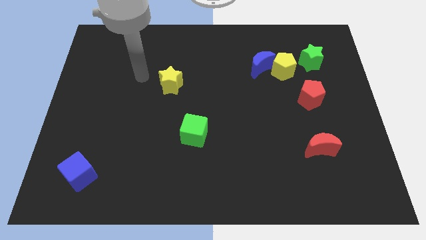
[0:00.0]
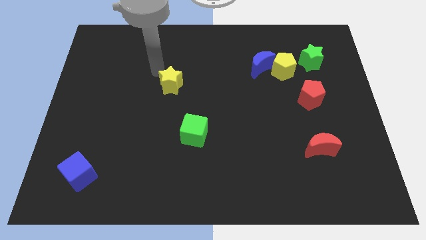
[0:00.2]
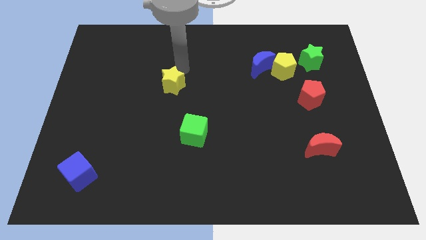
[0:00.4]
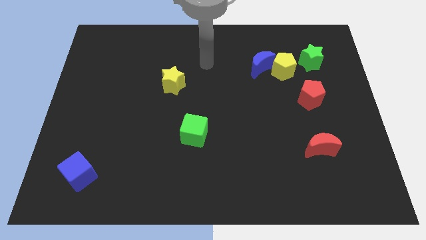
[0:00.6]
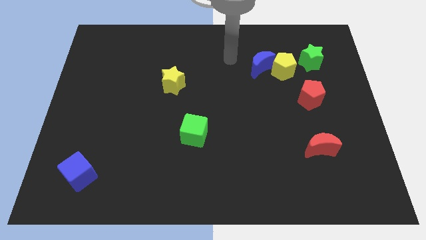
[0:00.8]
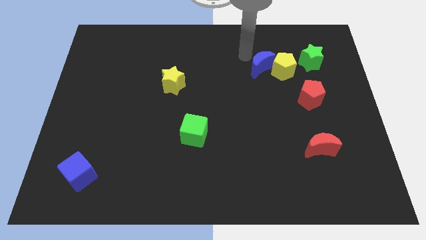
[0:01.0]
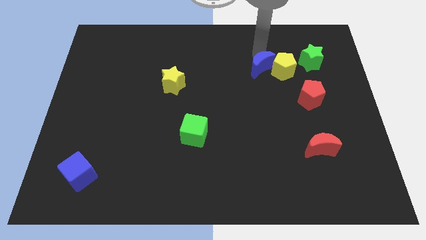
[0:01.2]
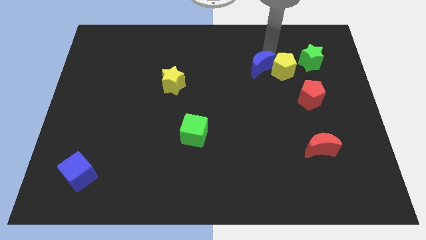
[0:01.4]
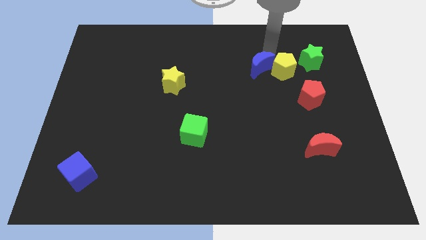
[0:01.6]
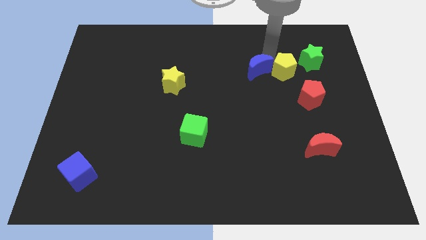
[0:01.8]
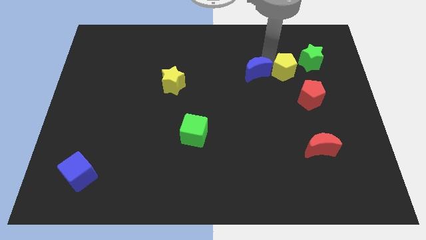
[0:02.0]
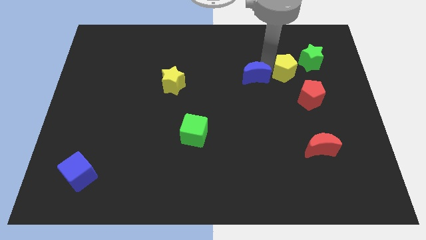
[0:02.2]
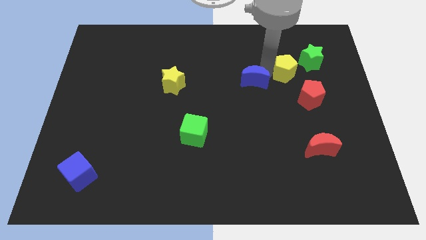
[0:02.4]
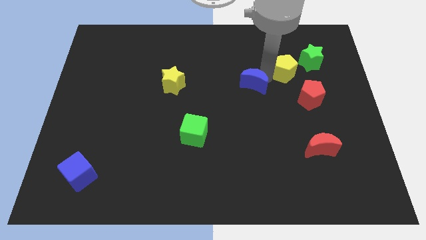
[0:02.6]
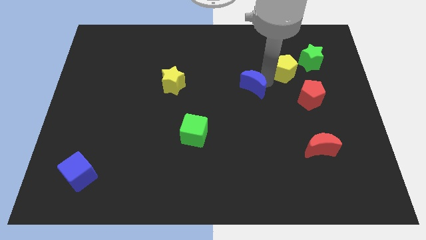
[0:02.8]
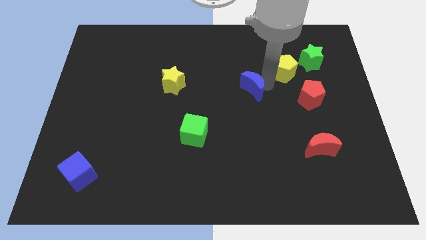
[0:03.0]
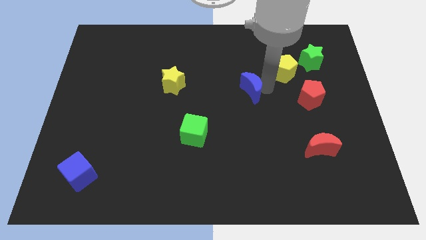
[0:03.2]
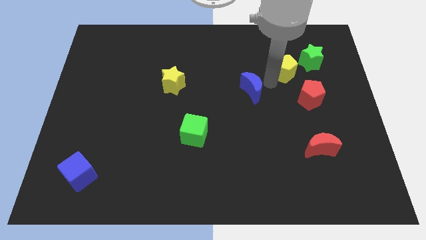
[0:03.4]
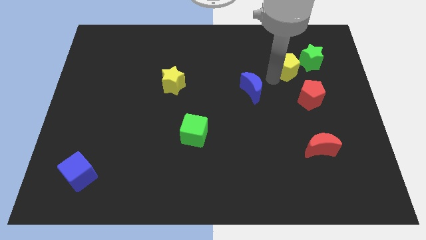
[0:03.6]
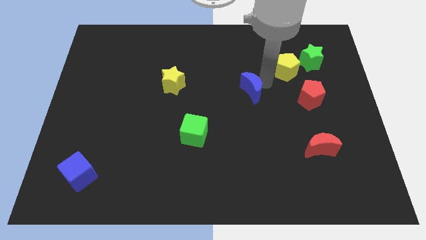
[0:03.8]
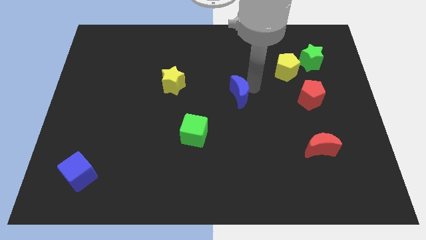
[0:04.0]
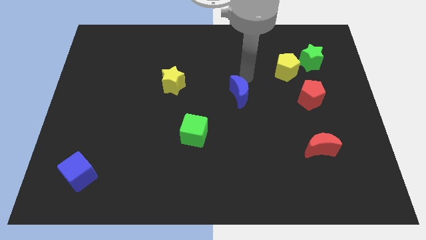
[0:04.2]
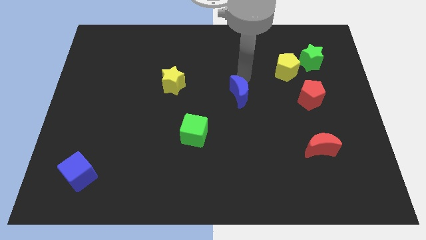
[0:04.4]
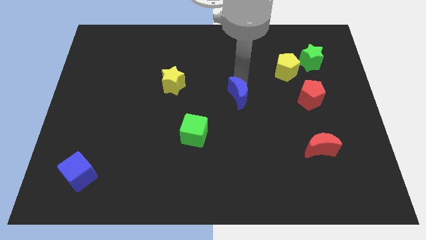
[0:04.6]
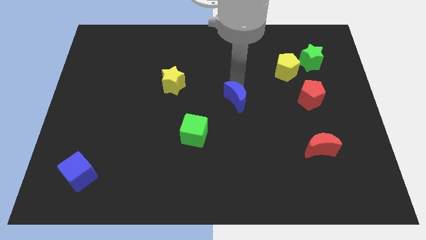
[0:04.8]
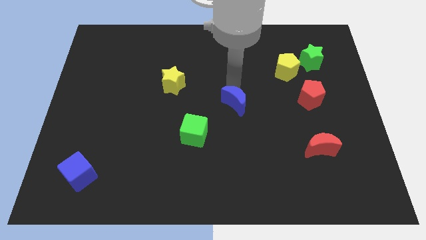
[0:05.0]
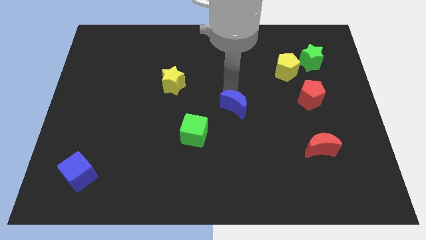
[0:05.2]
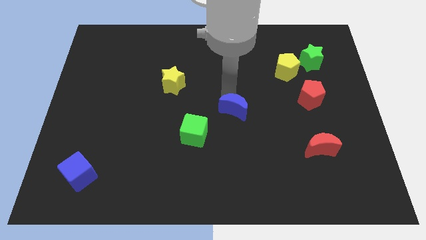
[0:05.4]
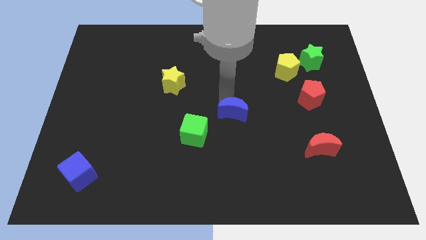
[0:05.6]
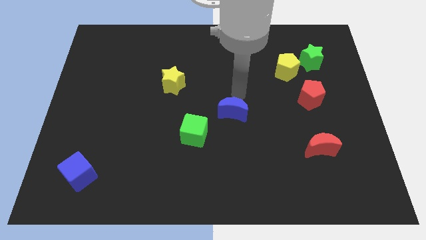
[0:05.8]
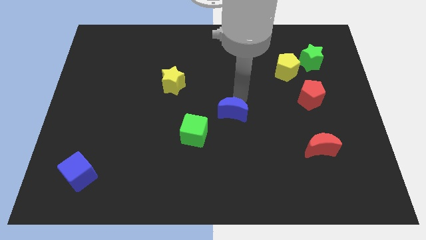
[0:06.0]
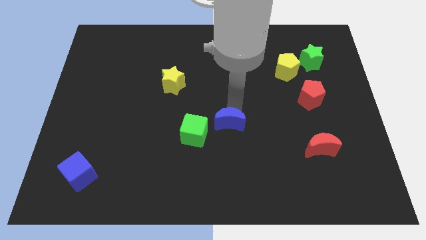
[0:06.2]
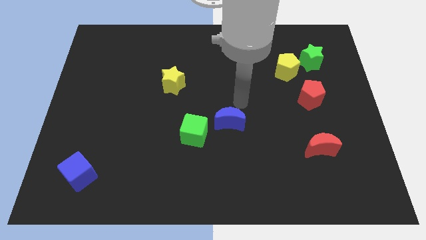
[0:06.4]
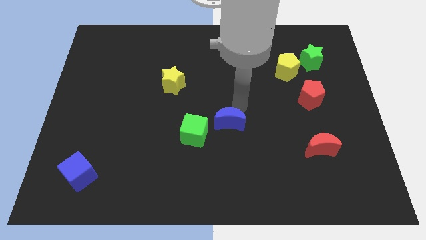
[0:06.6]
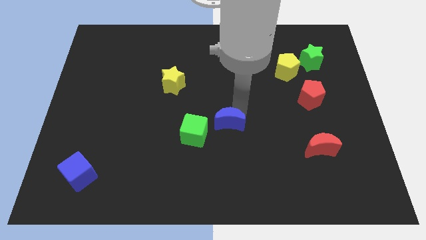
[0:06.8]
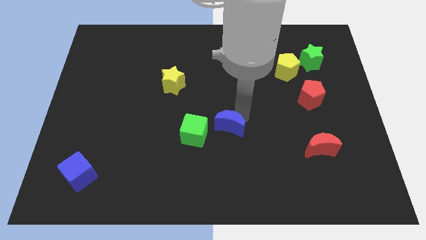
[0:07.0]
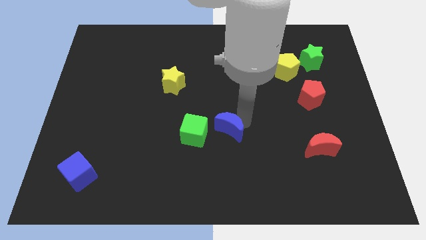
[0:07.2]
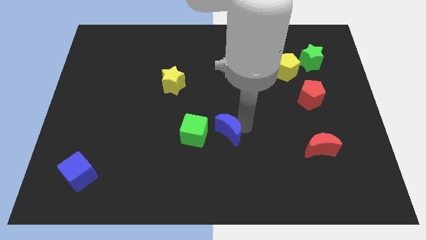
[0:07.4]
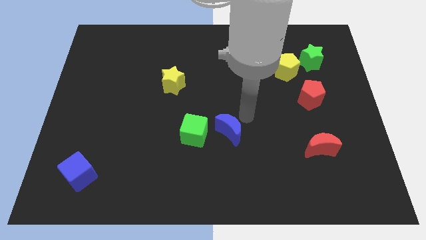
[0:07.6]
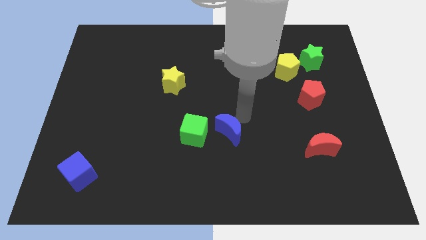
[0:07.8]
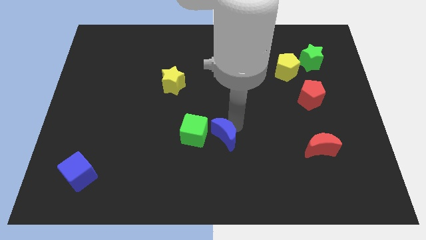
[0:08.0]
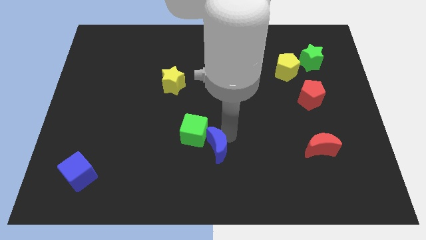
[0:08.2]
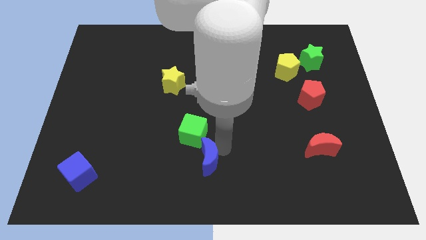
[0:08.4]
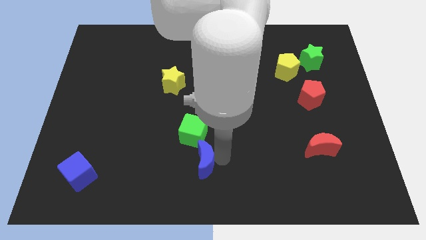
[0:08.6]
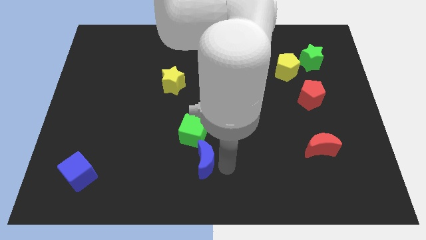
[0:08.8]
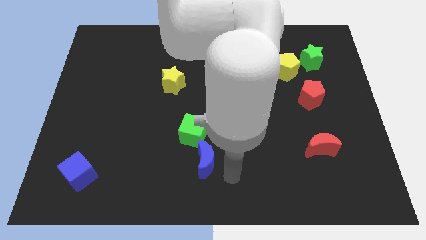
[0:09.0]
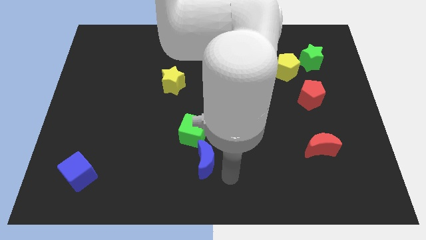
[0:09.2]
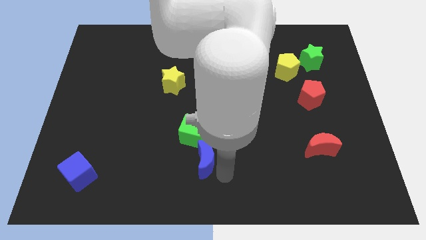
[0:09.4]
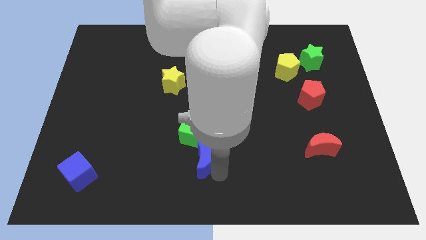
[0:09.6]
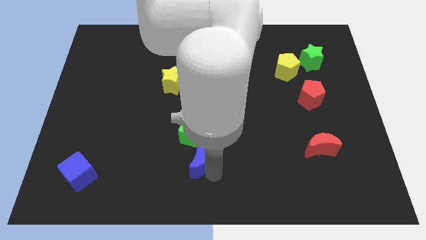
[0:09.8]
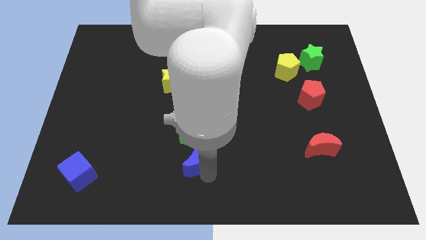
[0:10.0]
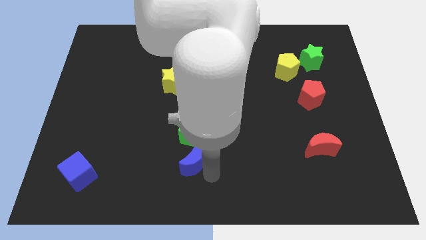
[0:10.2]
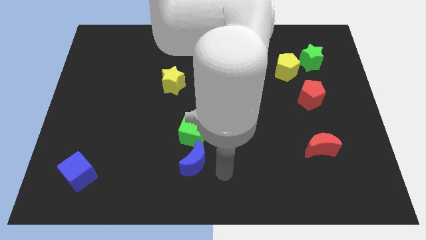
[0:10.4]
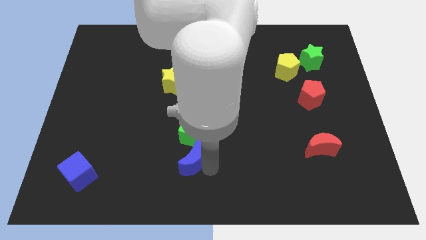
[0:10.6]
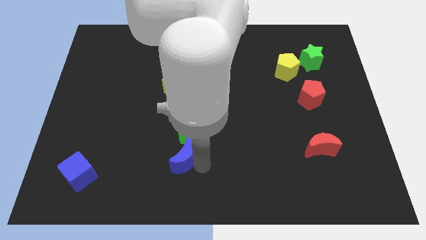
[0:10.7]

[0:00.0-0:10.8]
put the blue moon diagonally down and to the left of the green cube

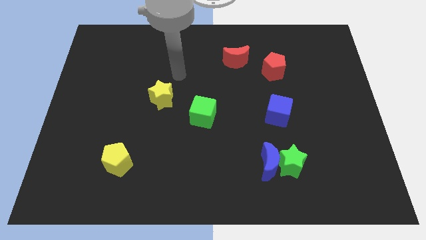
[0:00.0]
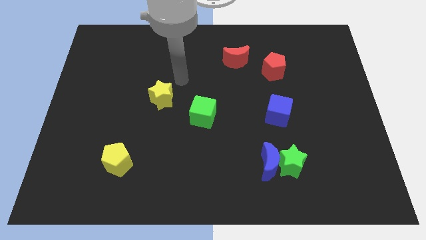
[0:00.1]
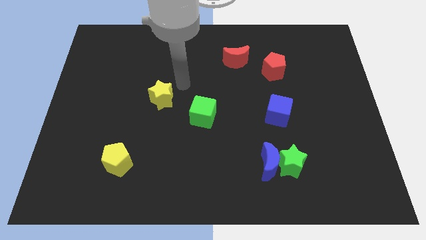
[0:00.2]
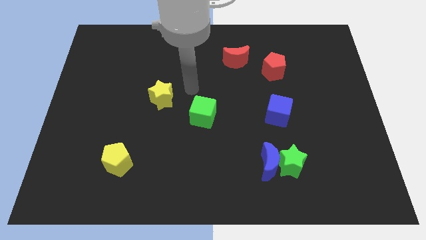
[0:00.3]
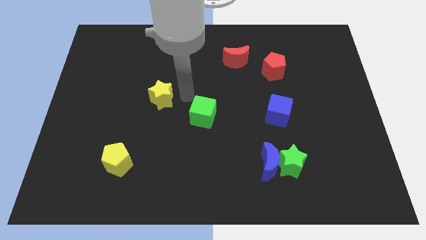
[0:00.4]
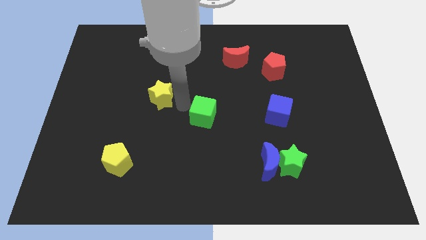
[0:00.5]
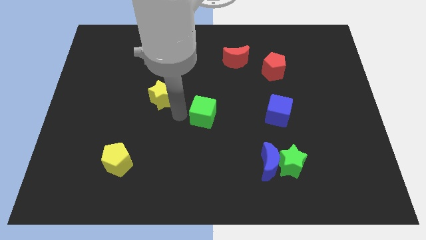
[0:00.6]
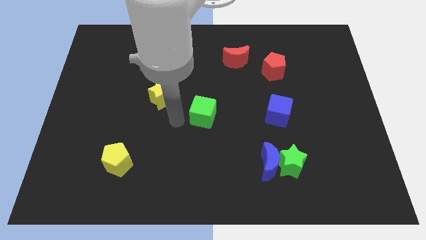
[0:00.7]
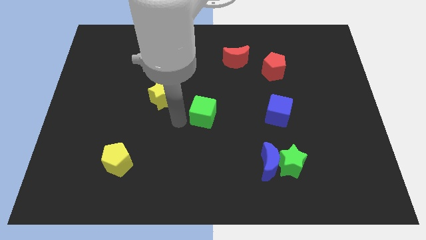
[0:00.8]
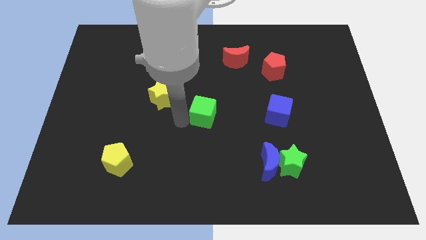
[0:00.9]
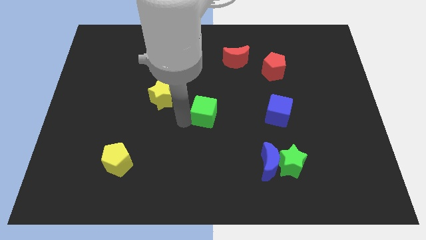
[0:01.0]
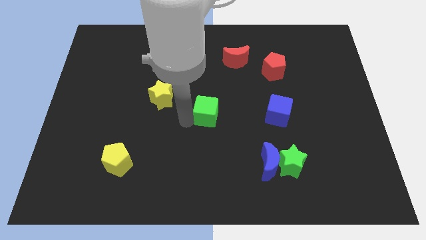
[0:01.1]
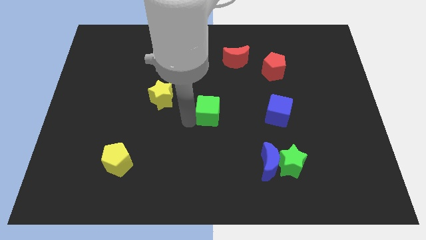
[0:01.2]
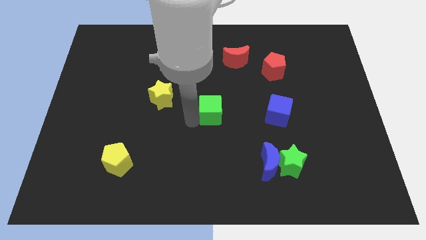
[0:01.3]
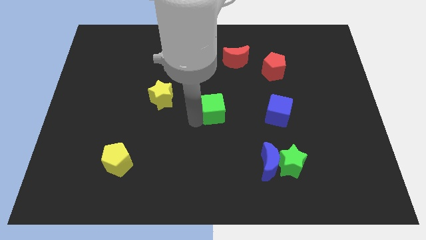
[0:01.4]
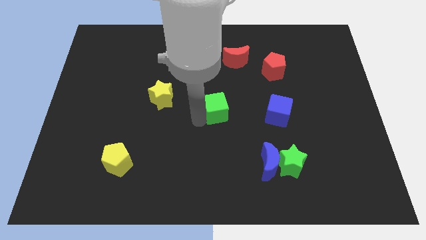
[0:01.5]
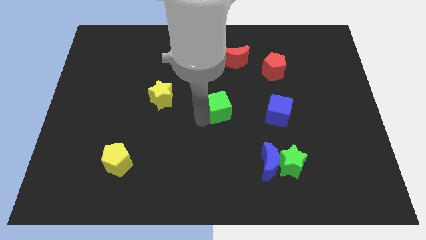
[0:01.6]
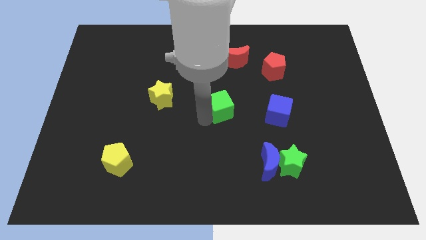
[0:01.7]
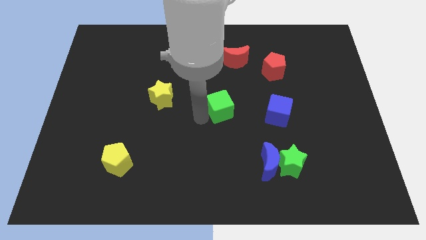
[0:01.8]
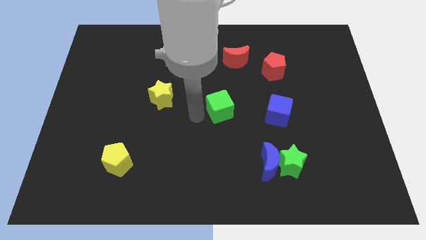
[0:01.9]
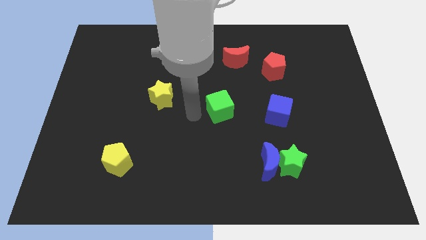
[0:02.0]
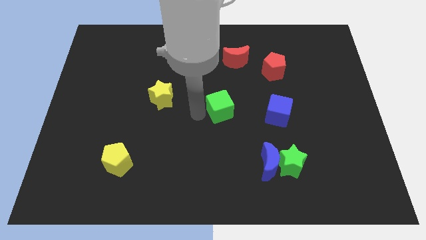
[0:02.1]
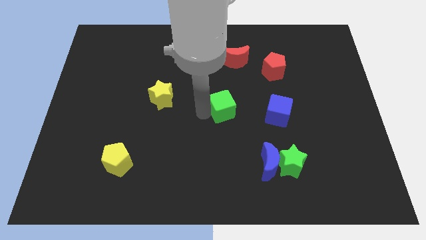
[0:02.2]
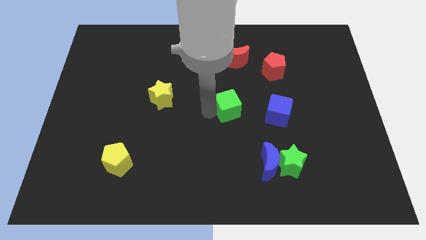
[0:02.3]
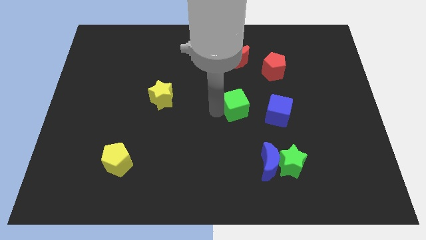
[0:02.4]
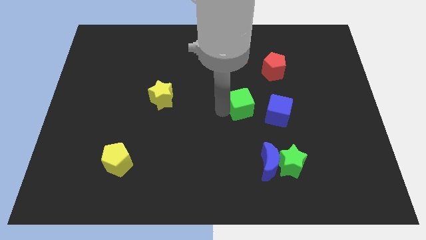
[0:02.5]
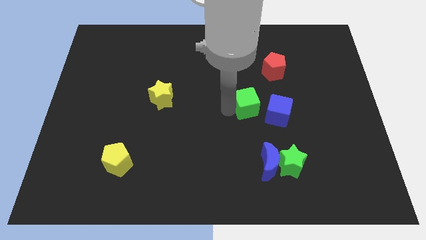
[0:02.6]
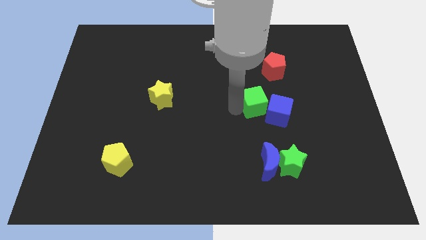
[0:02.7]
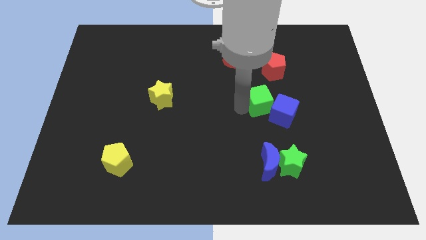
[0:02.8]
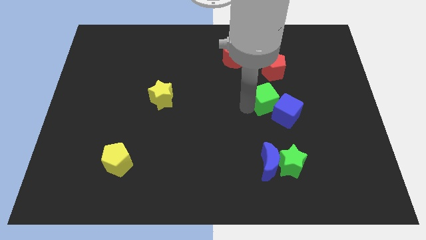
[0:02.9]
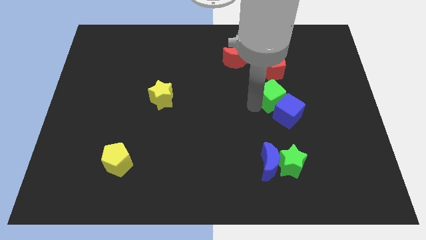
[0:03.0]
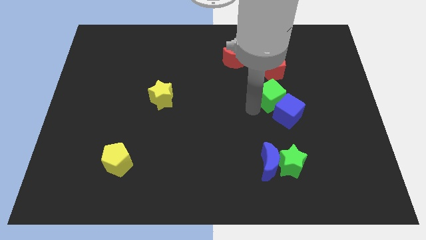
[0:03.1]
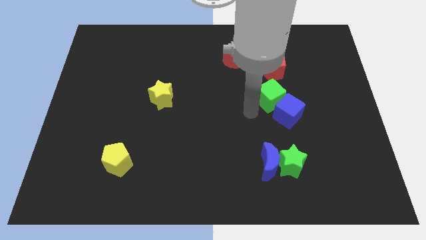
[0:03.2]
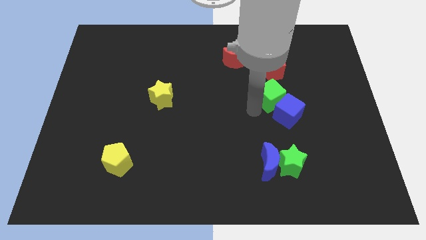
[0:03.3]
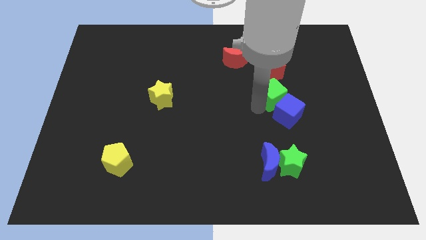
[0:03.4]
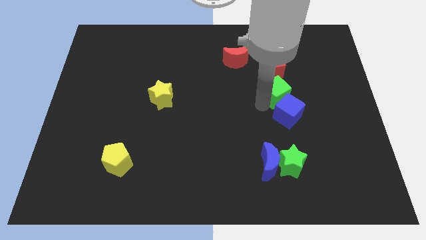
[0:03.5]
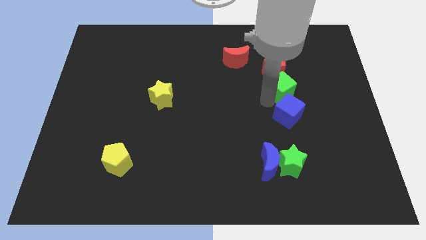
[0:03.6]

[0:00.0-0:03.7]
move the green cube to the bottom right side of the red pentagon
